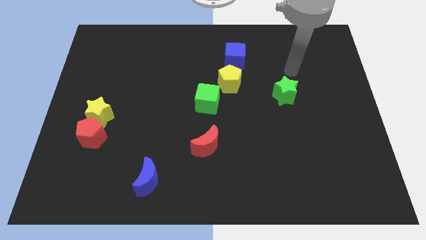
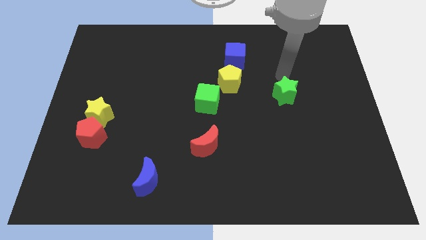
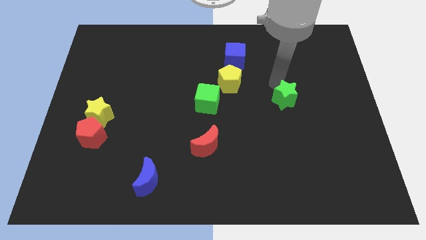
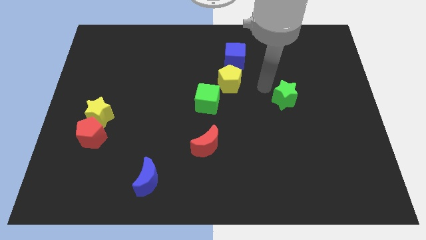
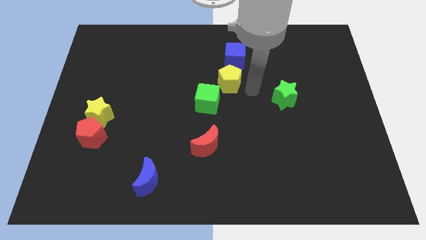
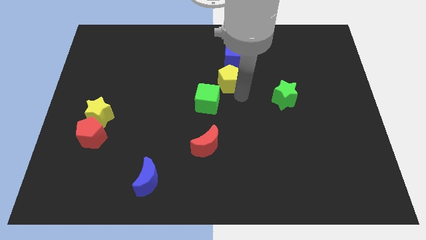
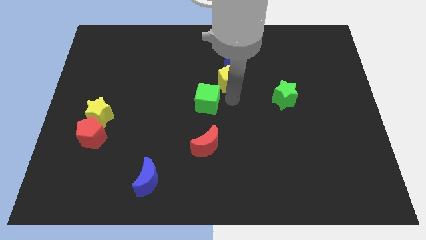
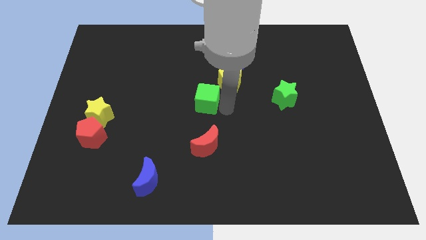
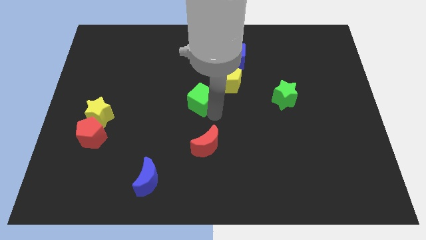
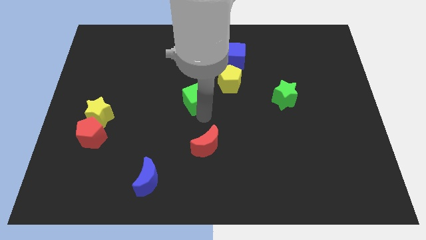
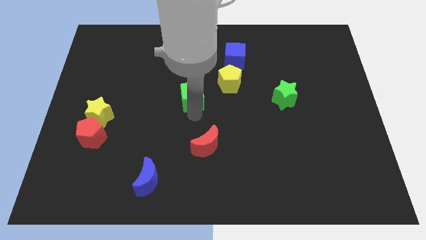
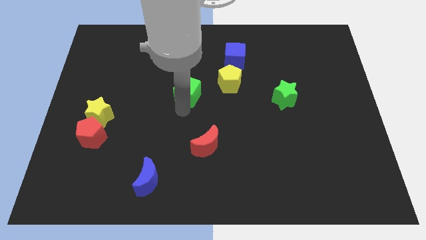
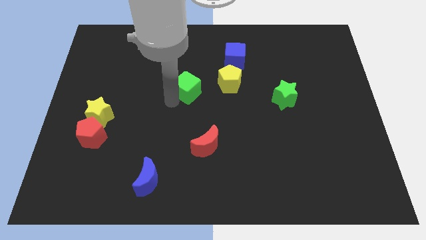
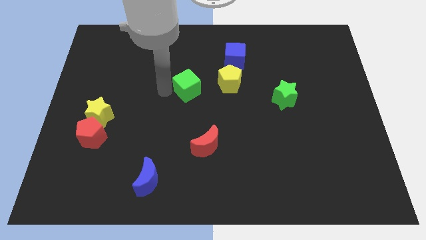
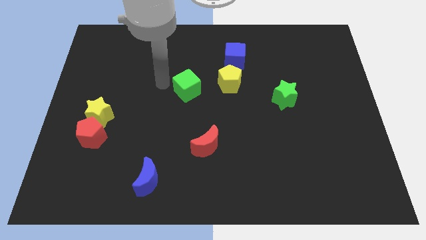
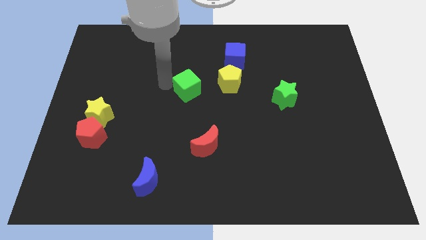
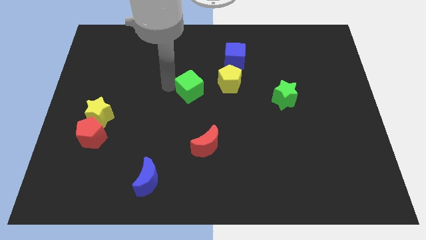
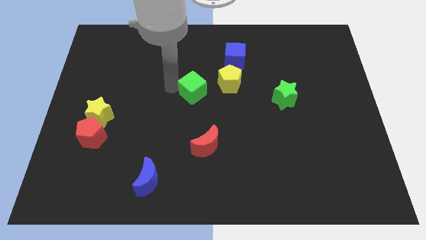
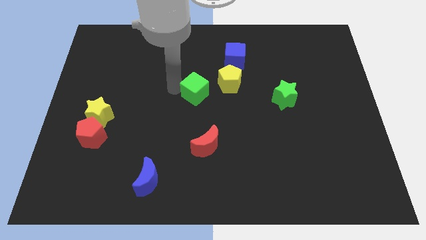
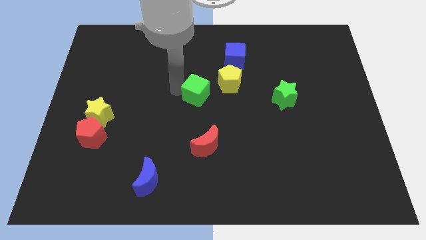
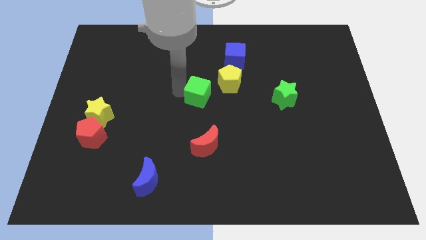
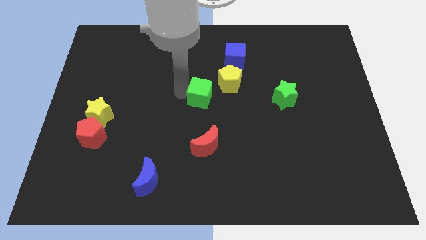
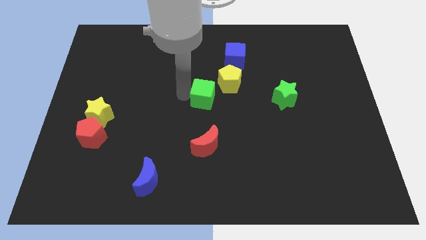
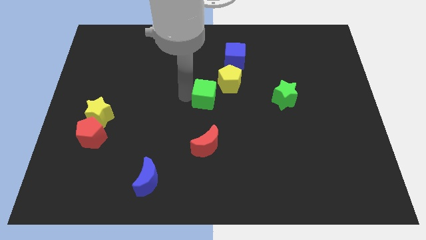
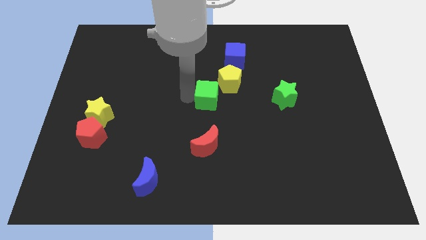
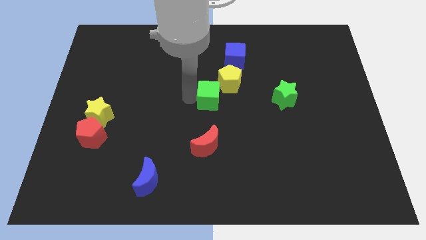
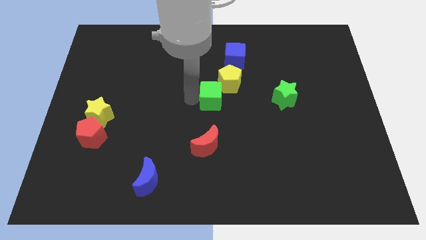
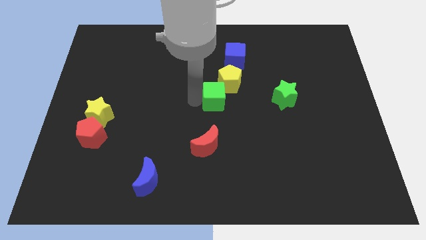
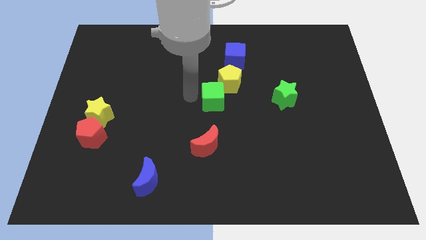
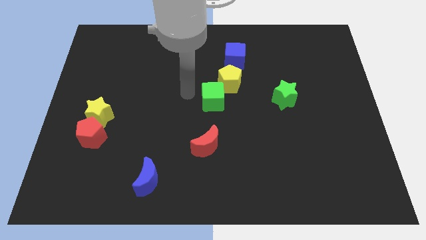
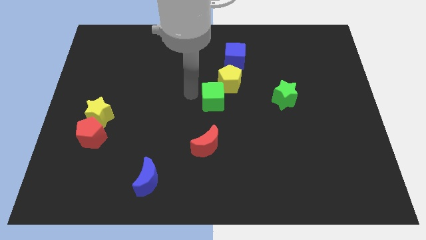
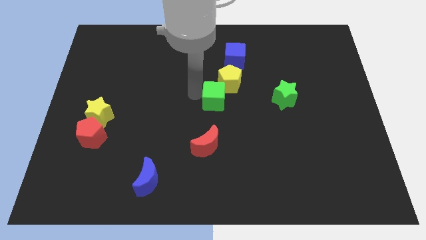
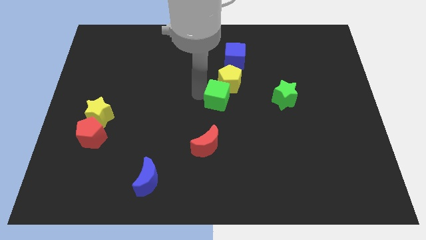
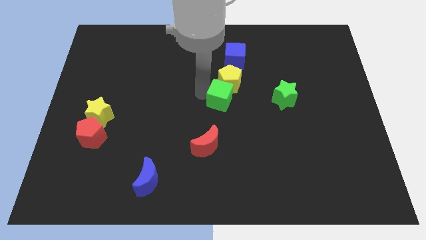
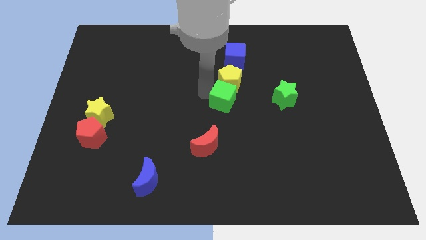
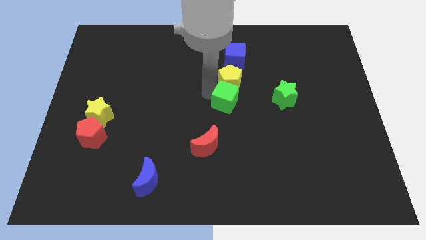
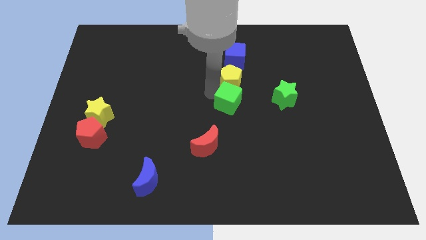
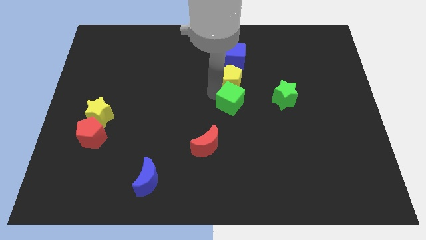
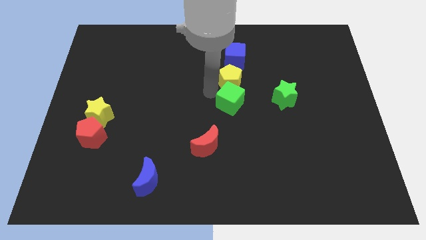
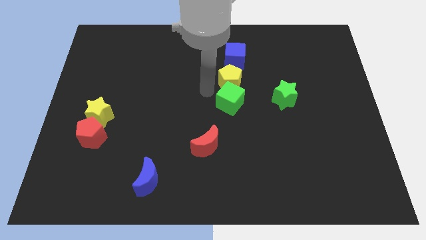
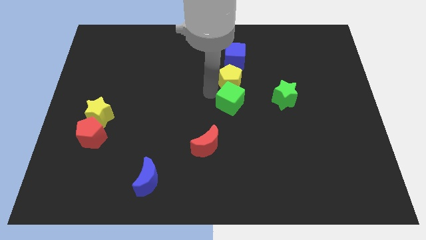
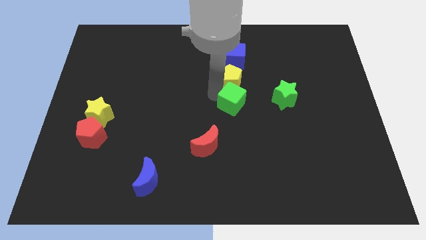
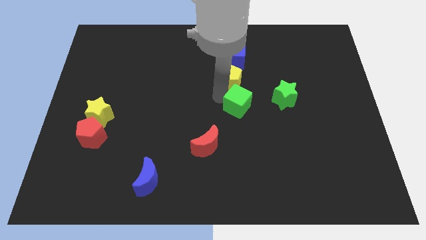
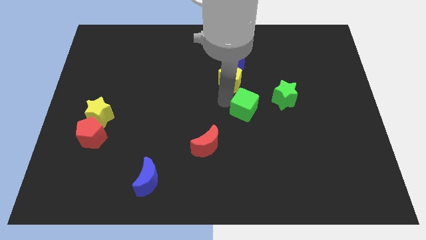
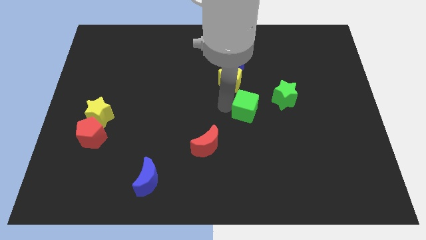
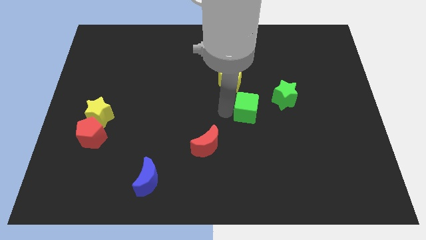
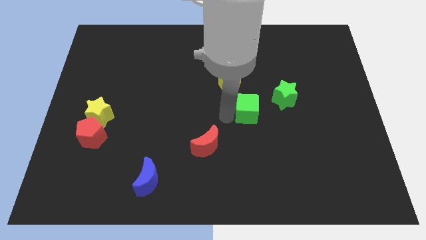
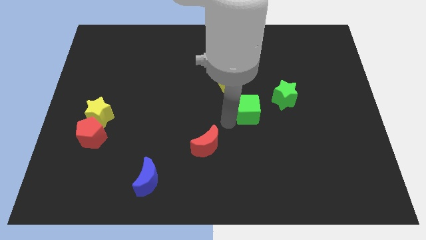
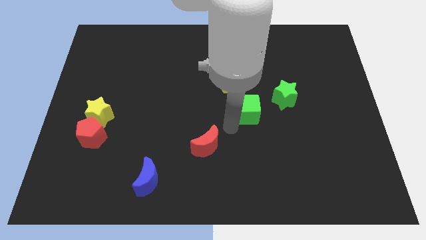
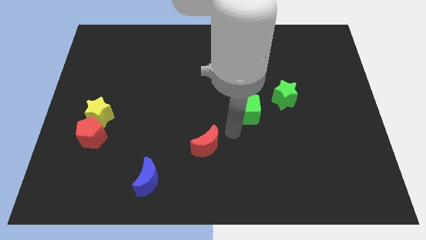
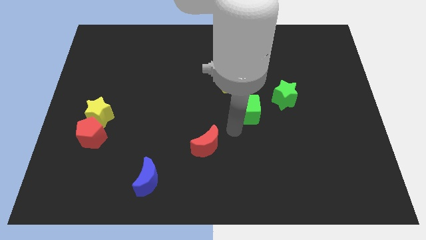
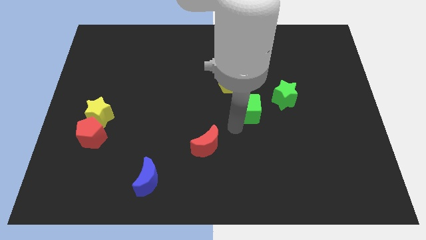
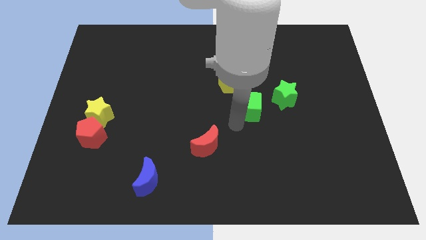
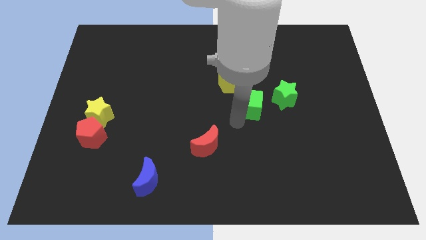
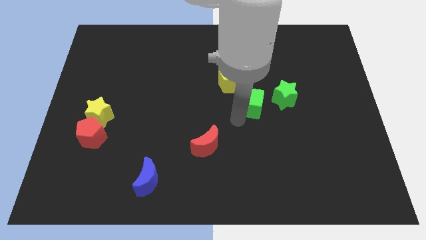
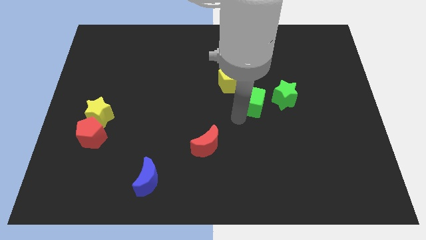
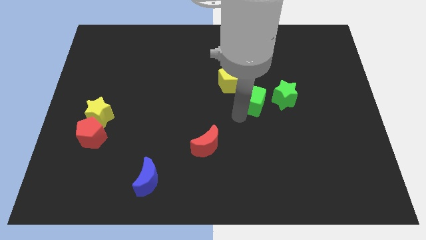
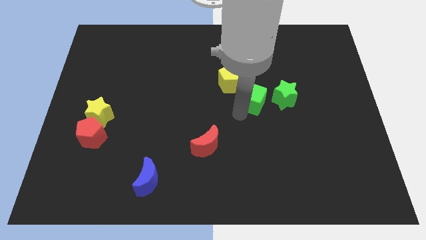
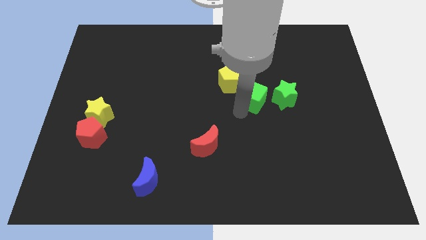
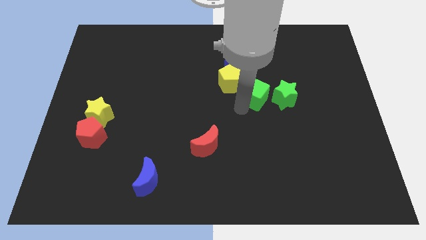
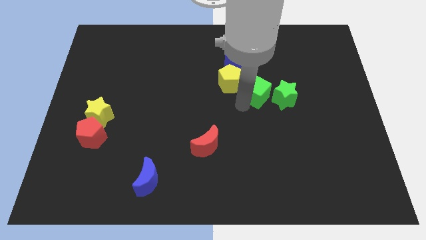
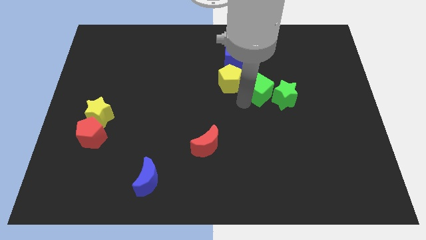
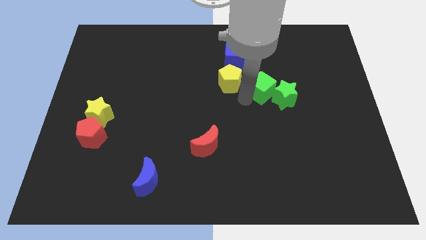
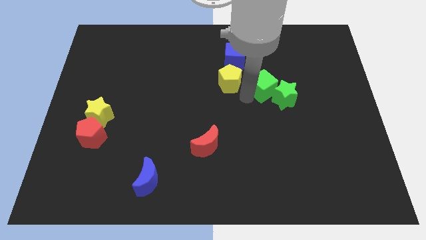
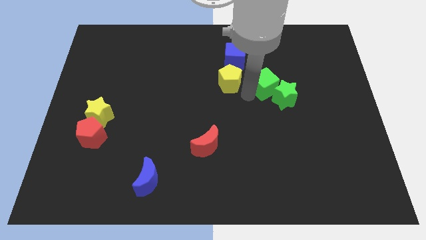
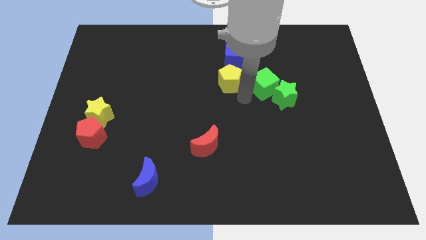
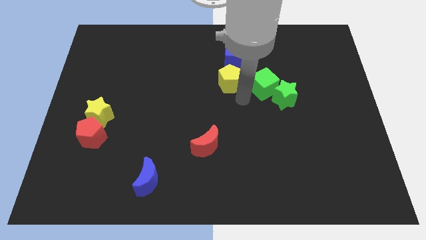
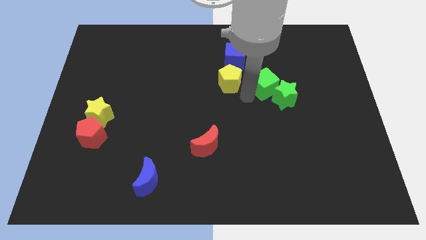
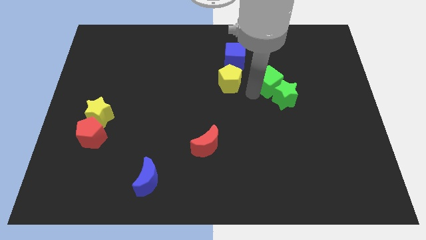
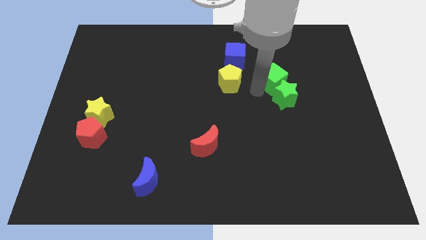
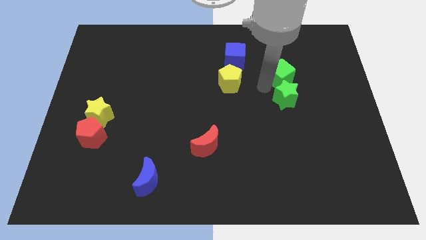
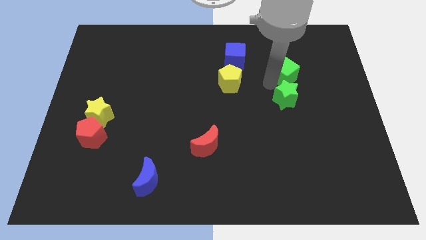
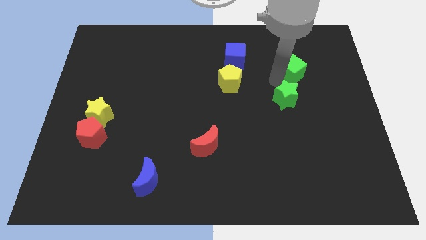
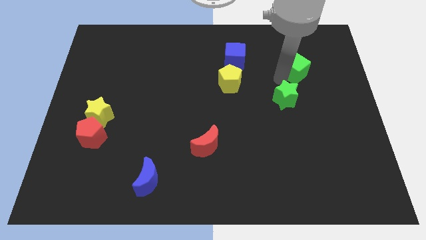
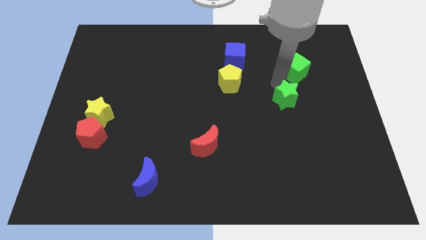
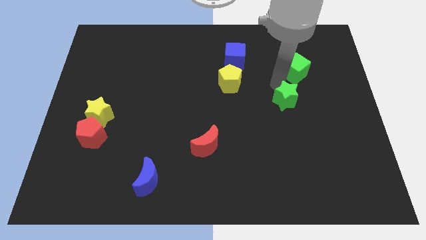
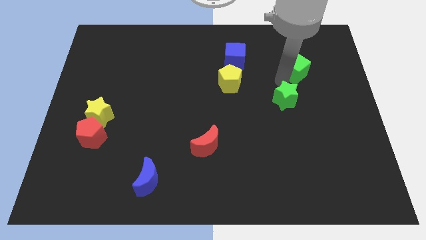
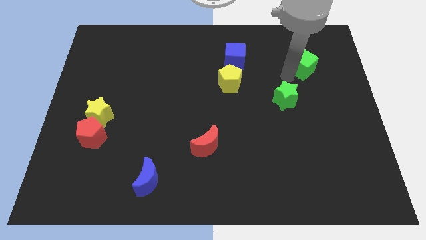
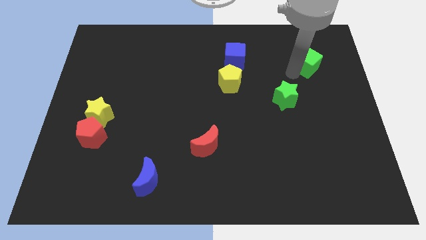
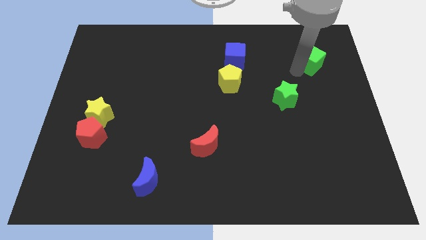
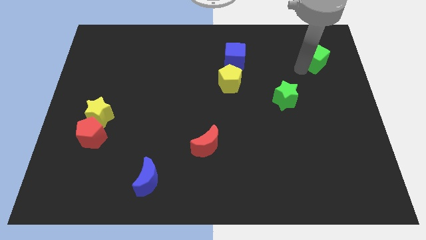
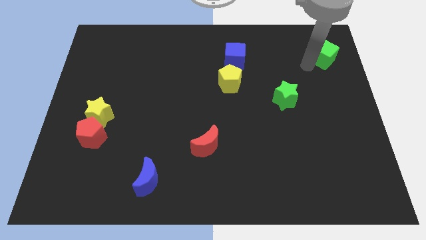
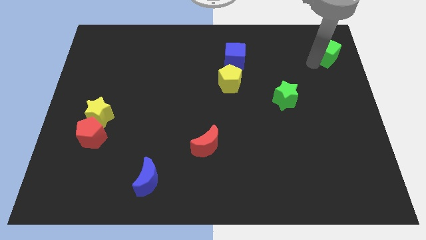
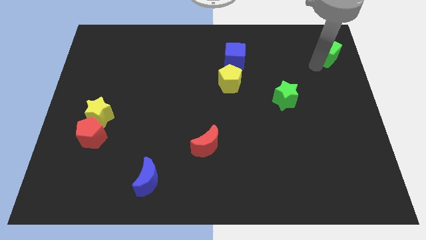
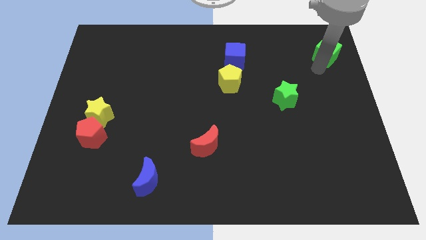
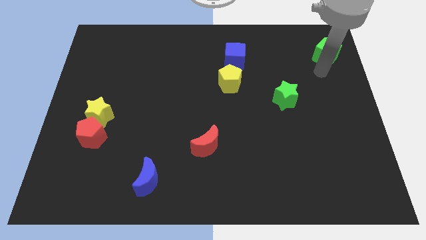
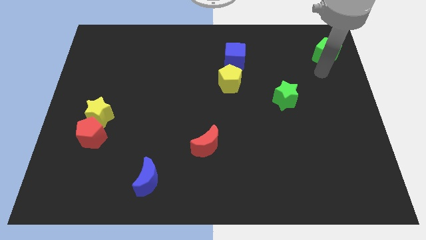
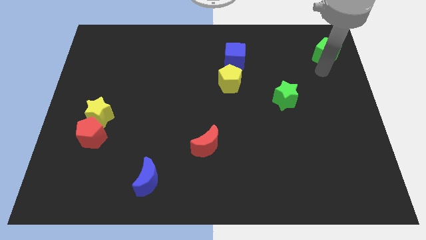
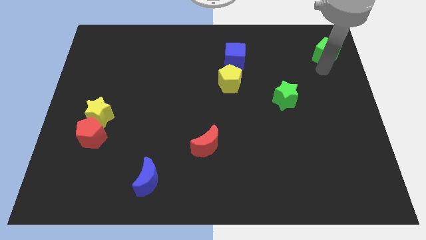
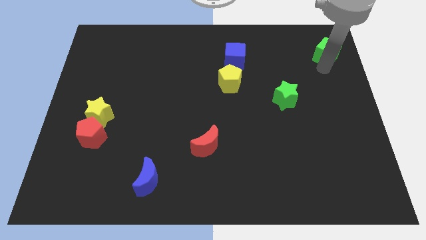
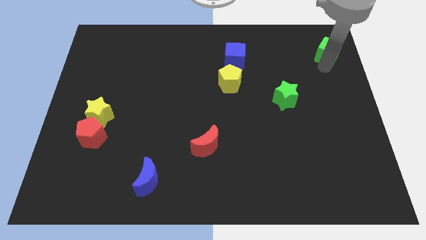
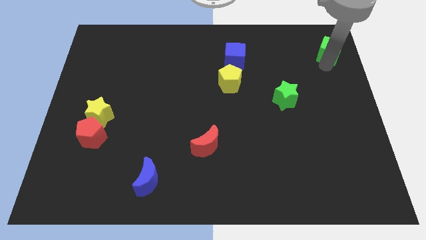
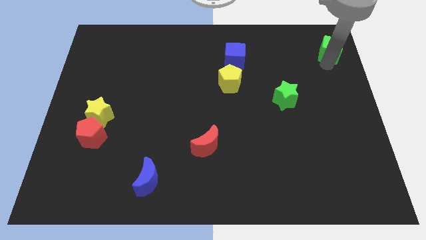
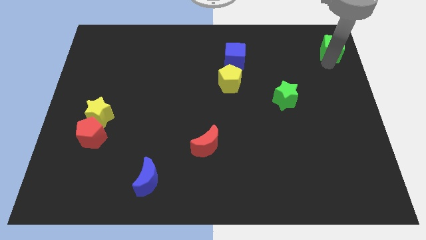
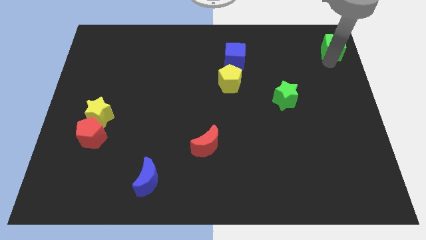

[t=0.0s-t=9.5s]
put the green cube to the upper right corner
